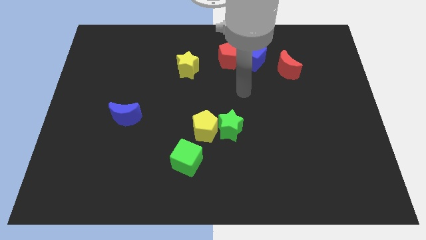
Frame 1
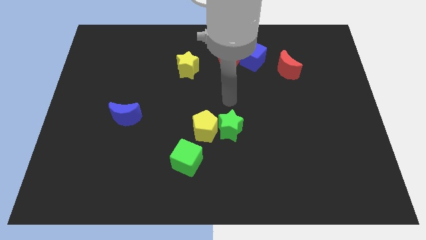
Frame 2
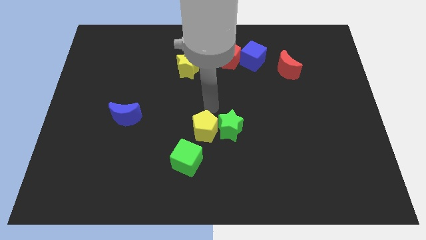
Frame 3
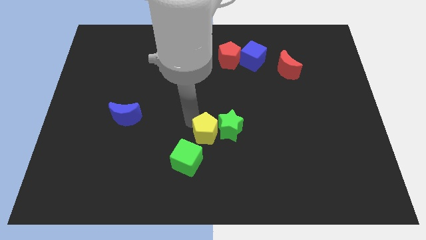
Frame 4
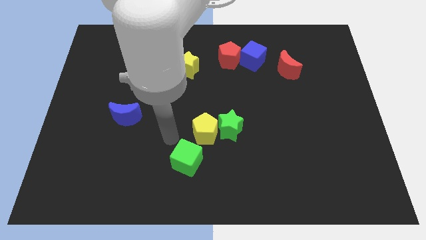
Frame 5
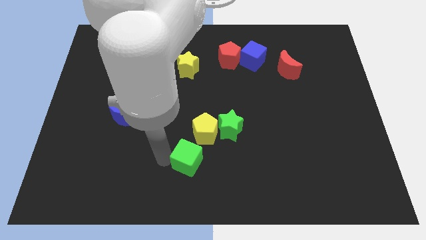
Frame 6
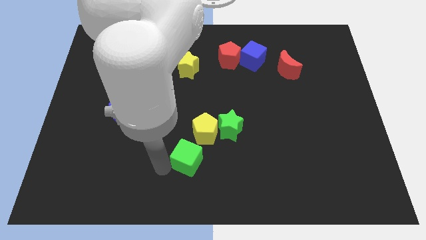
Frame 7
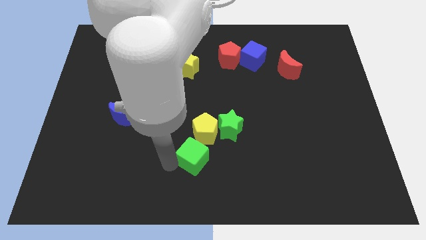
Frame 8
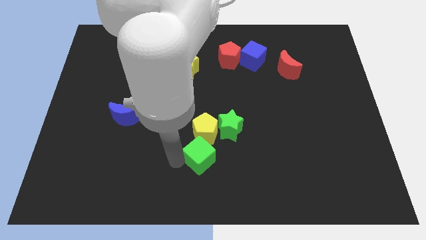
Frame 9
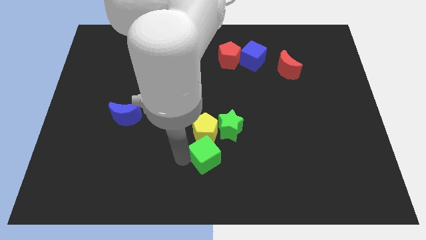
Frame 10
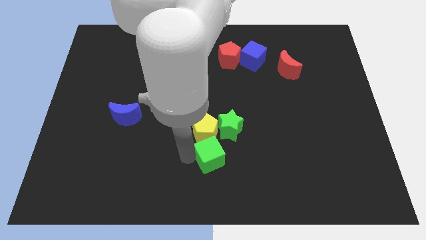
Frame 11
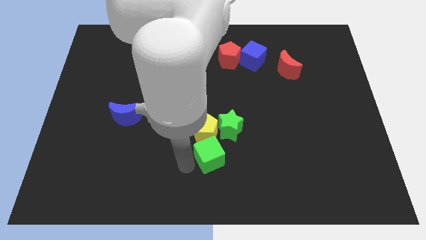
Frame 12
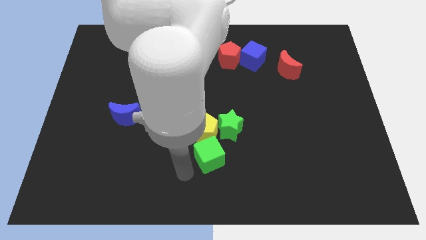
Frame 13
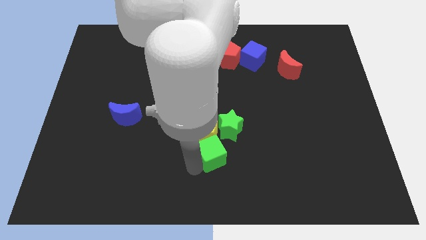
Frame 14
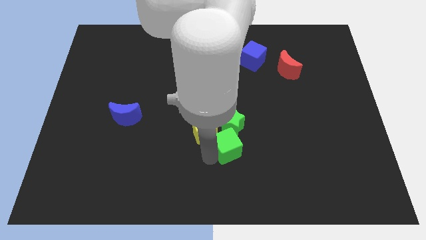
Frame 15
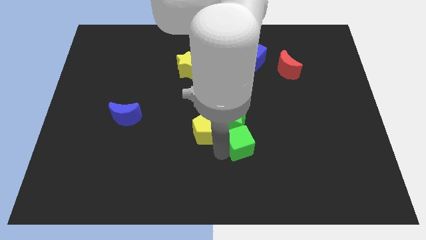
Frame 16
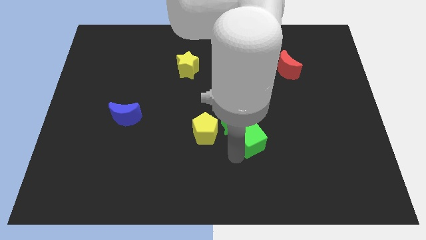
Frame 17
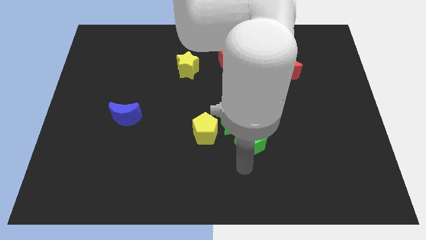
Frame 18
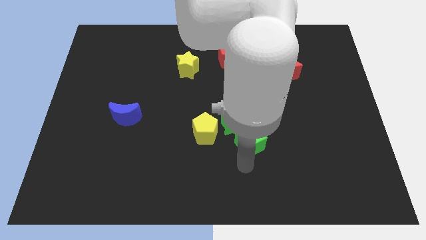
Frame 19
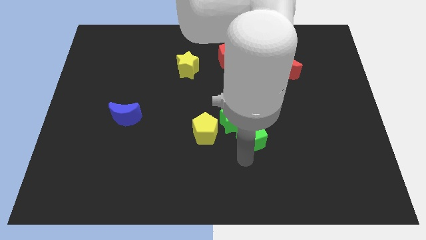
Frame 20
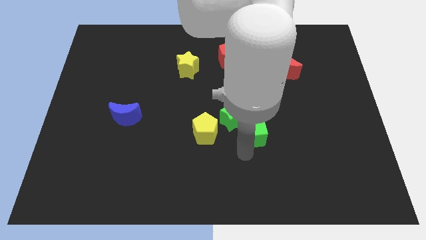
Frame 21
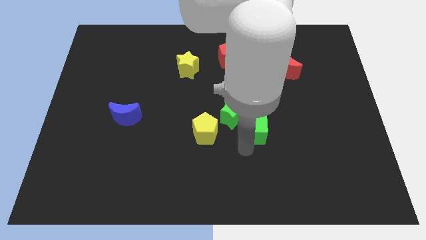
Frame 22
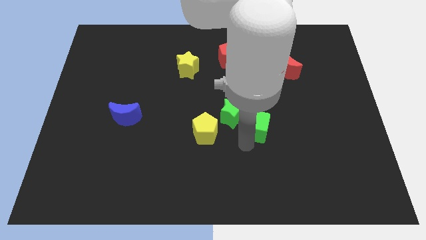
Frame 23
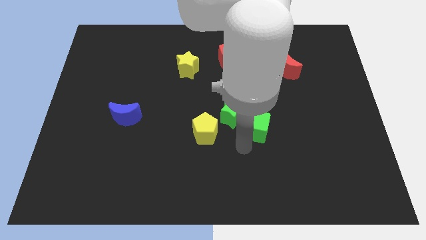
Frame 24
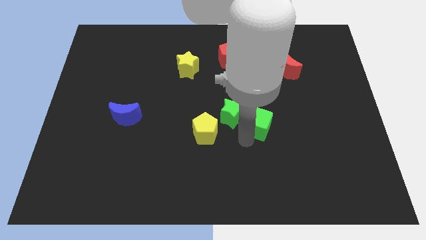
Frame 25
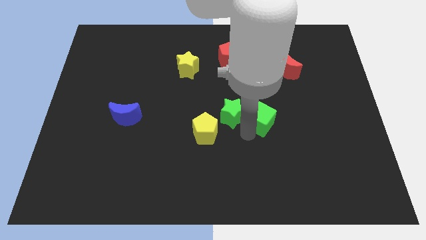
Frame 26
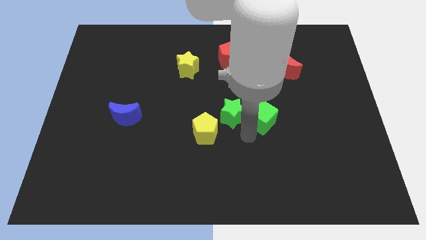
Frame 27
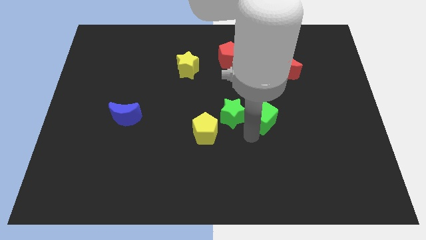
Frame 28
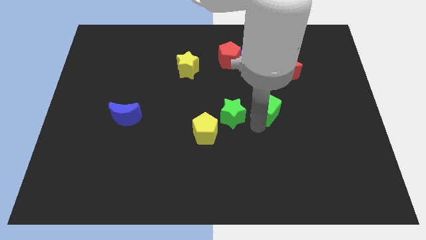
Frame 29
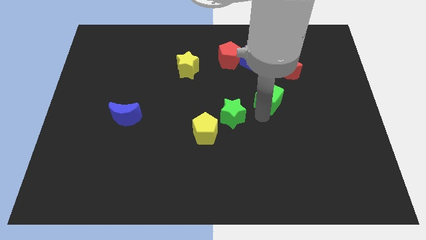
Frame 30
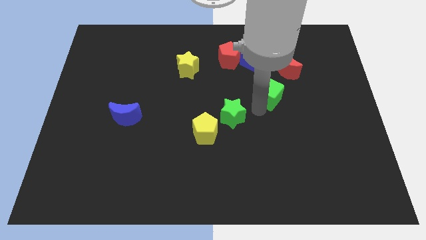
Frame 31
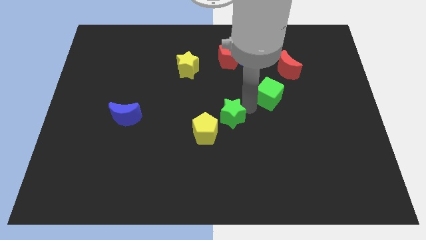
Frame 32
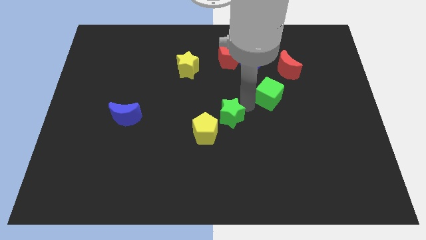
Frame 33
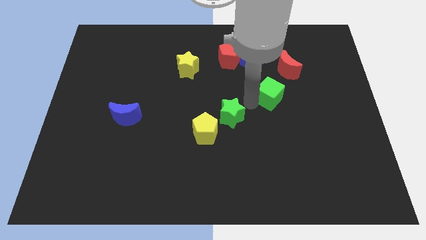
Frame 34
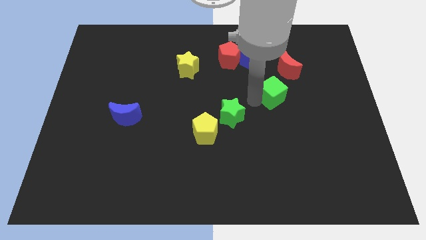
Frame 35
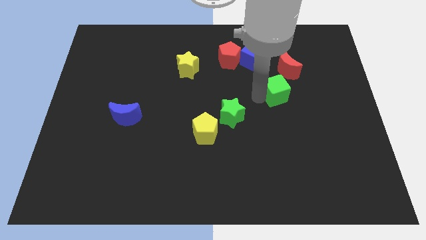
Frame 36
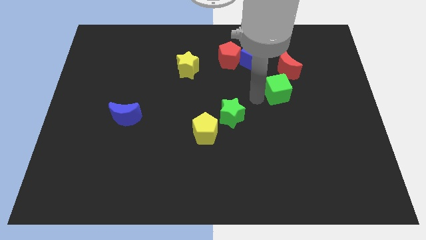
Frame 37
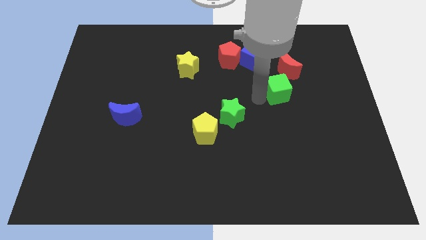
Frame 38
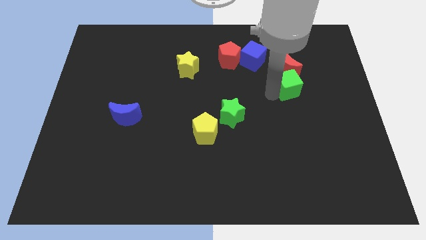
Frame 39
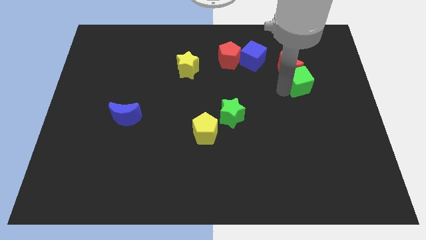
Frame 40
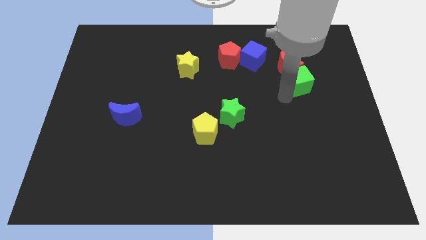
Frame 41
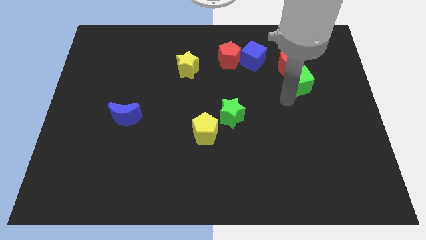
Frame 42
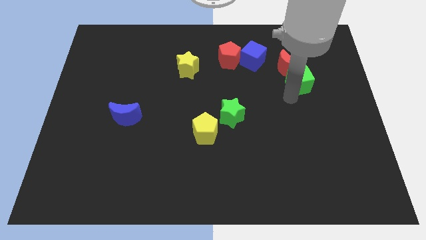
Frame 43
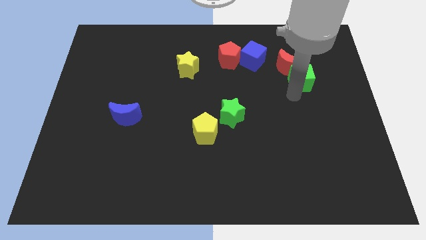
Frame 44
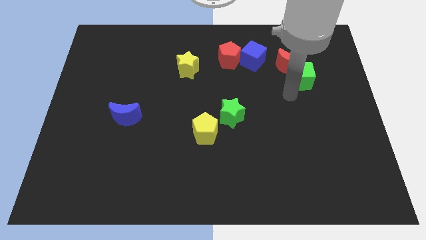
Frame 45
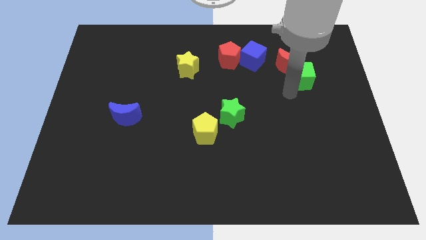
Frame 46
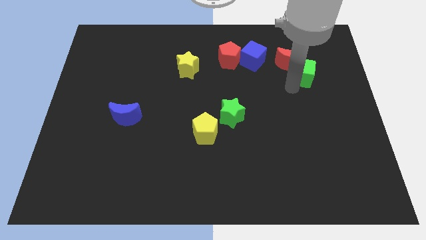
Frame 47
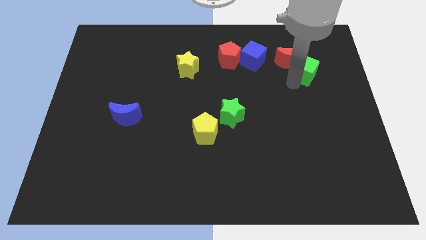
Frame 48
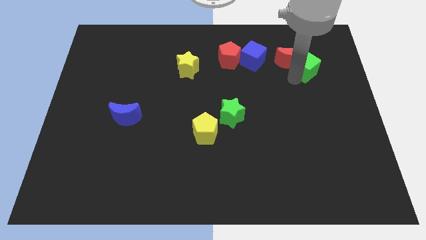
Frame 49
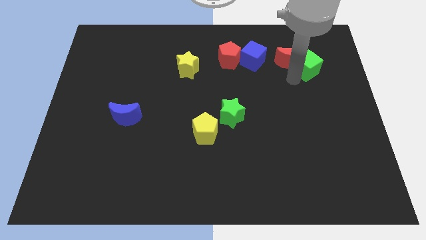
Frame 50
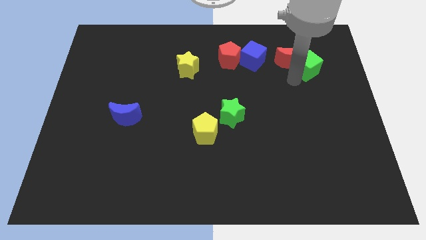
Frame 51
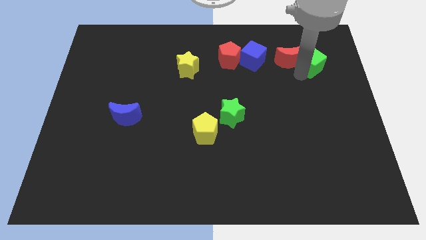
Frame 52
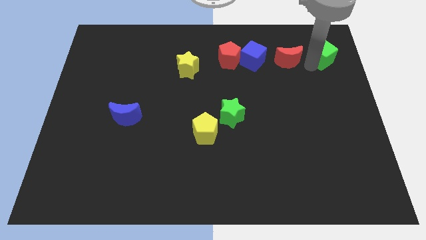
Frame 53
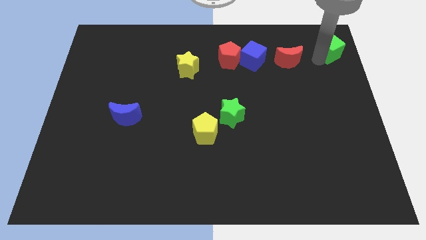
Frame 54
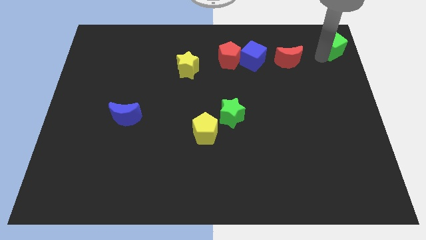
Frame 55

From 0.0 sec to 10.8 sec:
push the green cube to the top right corner

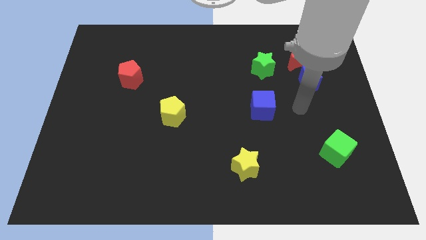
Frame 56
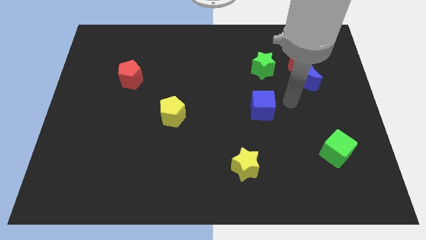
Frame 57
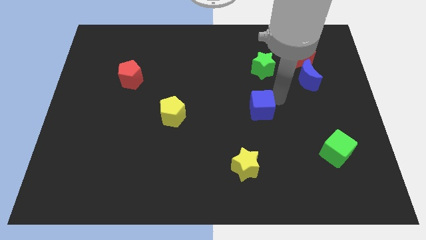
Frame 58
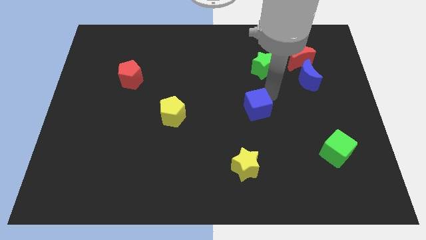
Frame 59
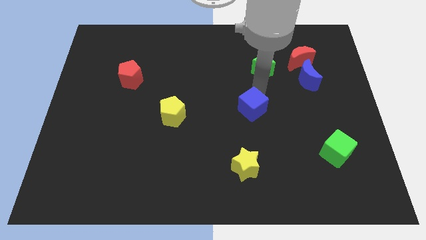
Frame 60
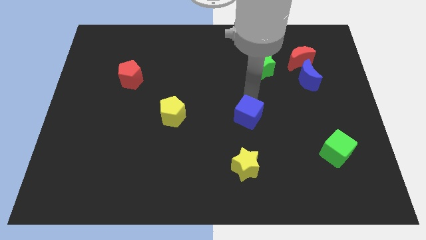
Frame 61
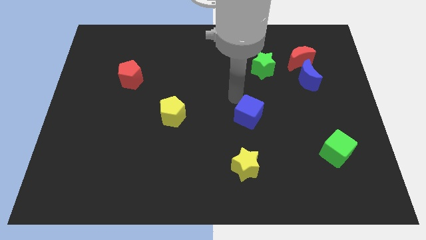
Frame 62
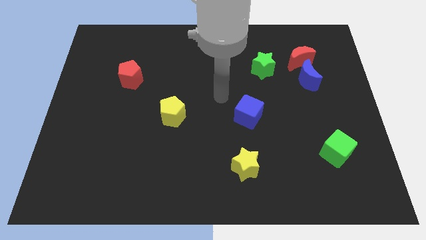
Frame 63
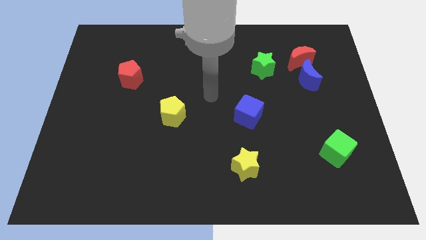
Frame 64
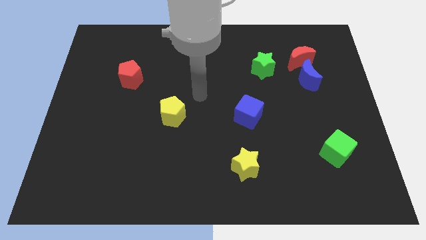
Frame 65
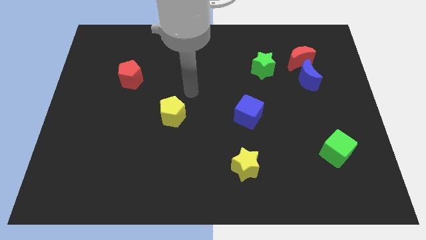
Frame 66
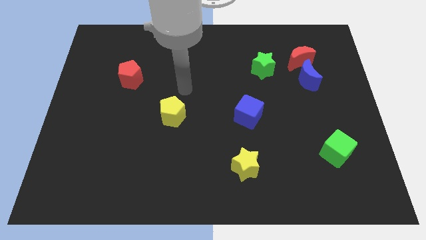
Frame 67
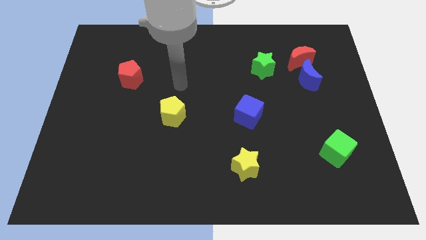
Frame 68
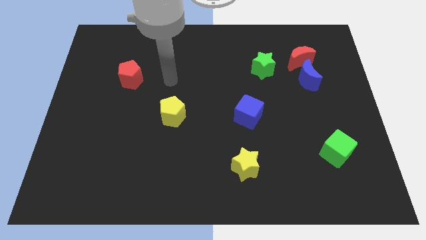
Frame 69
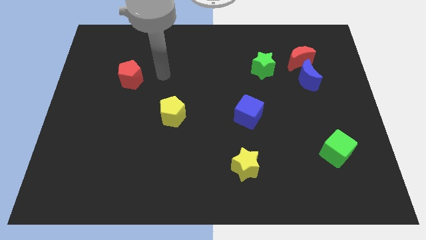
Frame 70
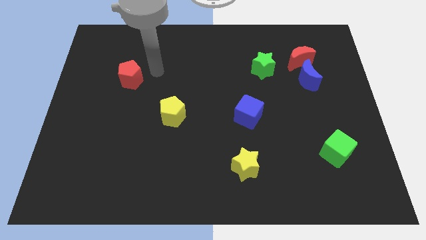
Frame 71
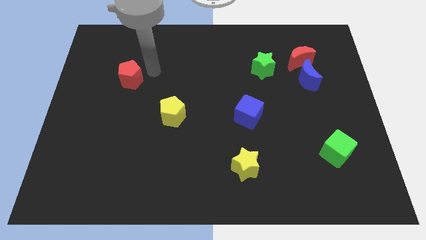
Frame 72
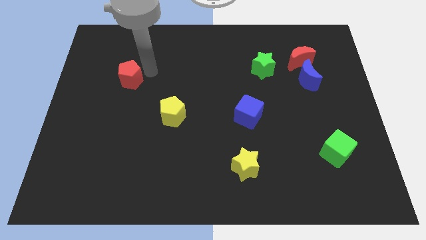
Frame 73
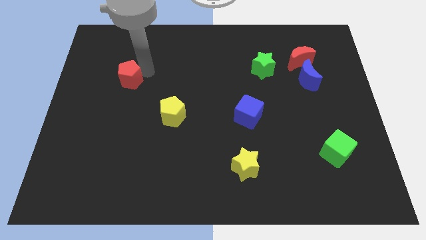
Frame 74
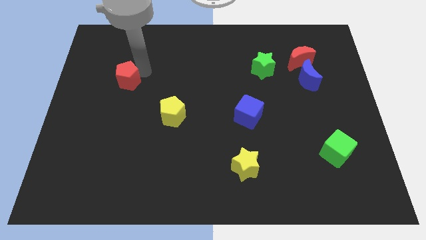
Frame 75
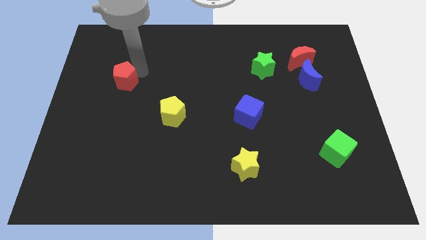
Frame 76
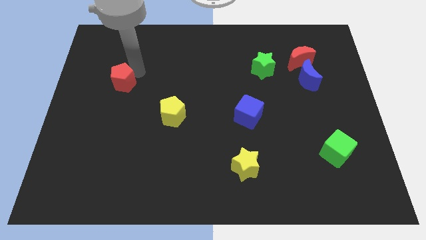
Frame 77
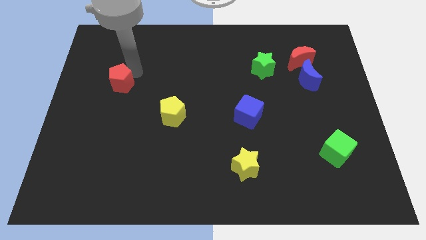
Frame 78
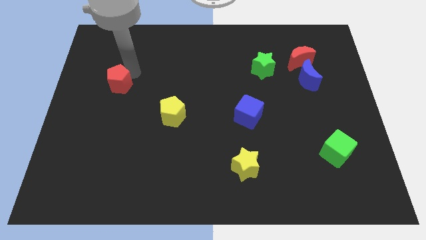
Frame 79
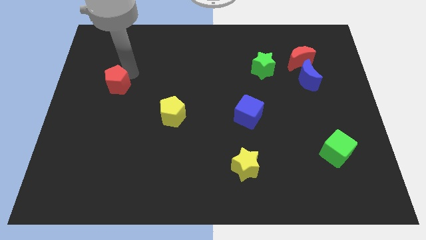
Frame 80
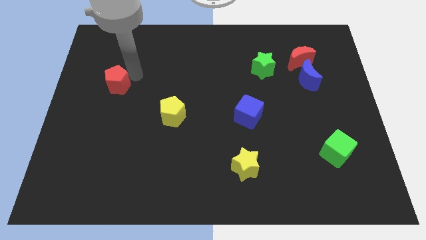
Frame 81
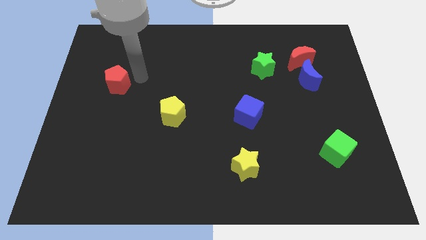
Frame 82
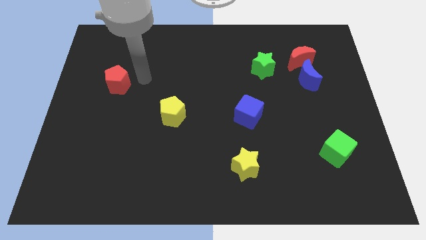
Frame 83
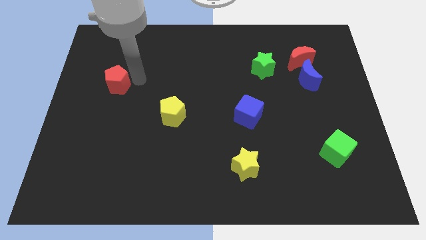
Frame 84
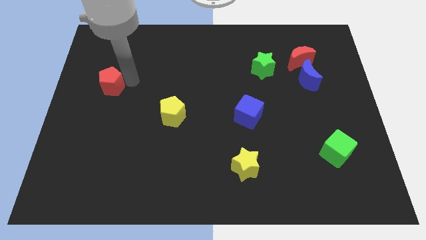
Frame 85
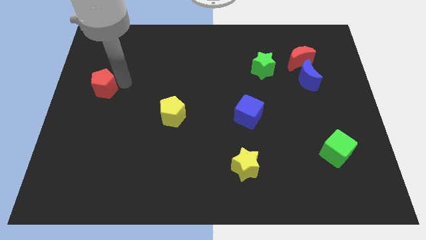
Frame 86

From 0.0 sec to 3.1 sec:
slide the red pentagon to the left side
